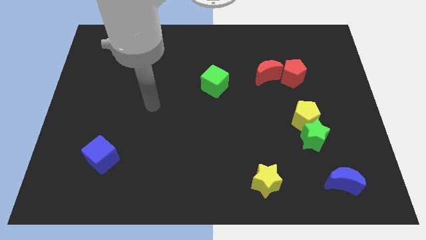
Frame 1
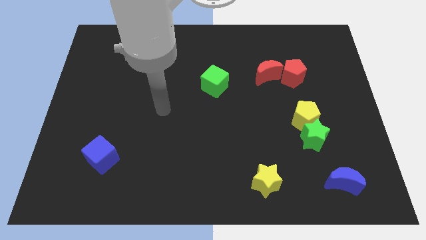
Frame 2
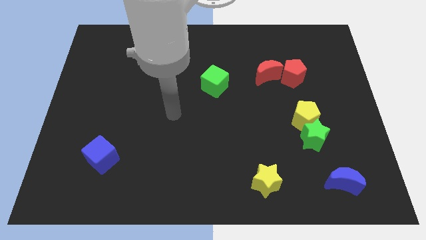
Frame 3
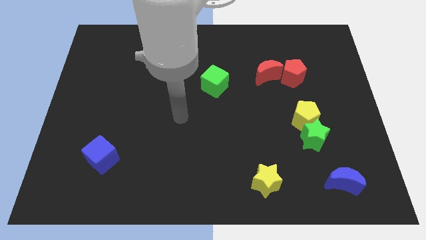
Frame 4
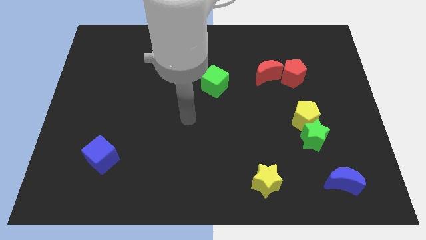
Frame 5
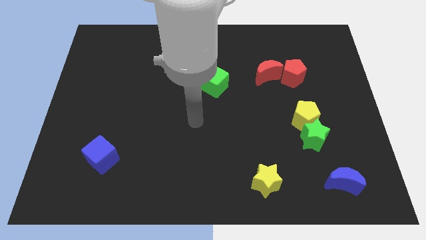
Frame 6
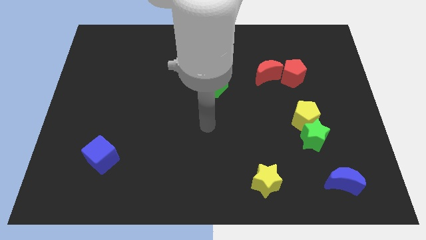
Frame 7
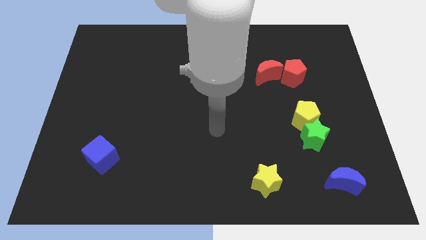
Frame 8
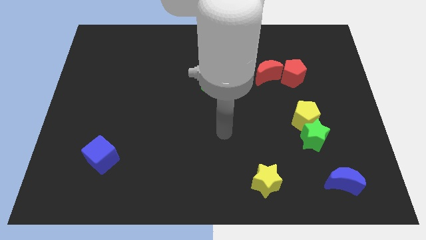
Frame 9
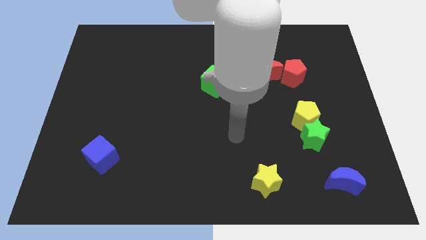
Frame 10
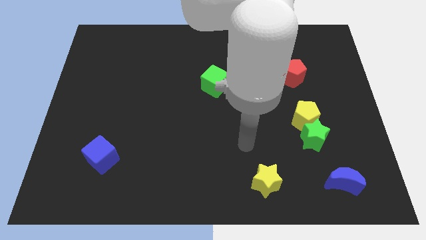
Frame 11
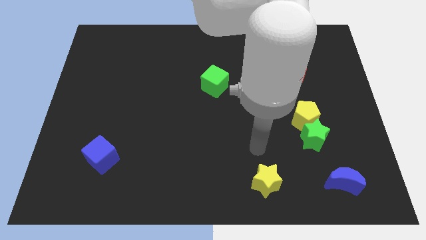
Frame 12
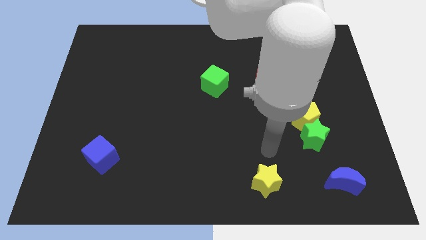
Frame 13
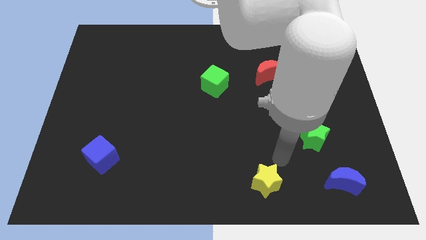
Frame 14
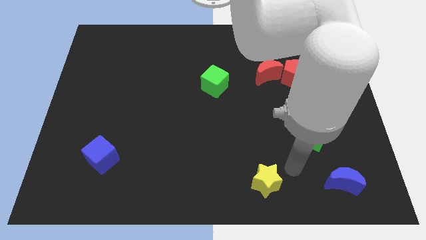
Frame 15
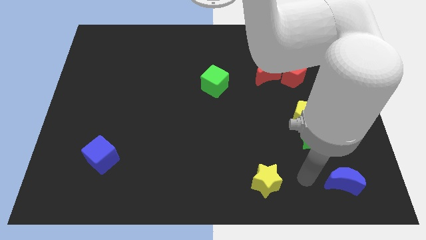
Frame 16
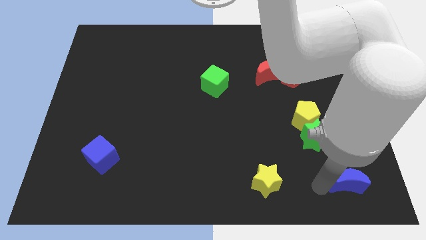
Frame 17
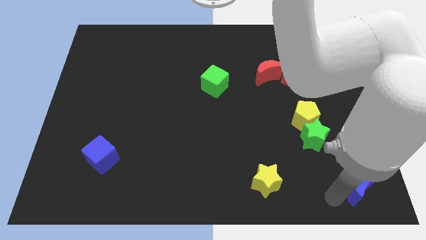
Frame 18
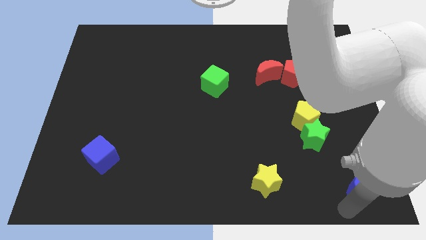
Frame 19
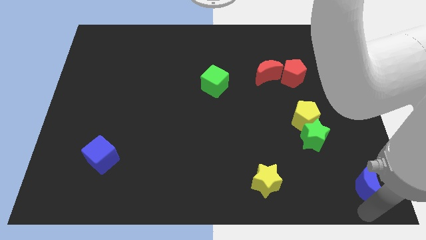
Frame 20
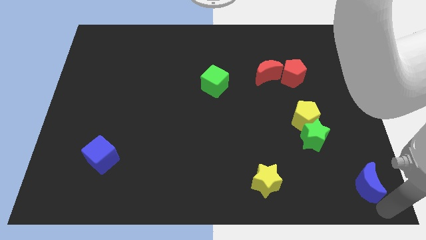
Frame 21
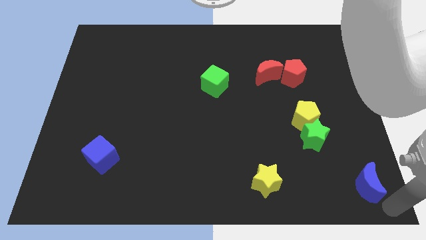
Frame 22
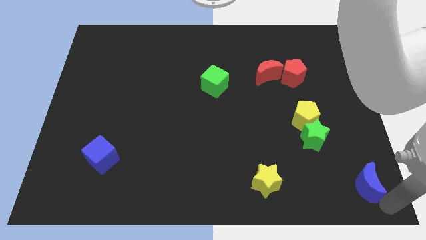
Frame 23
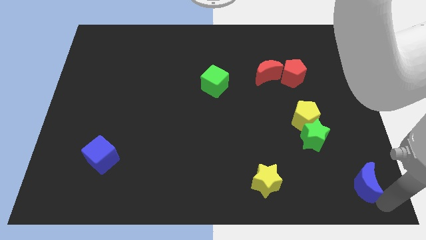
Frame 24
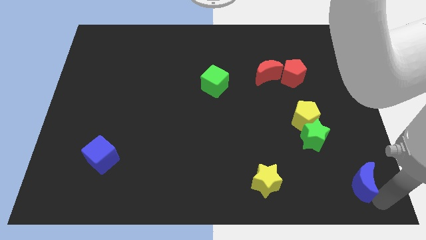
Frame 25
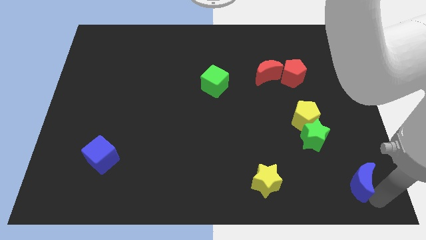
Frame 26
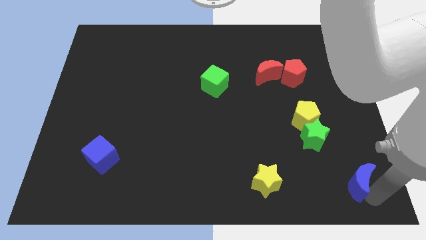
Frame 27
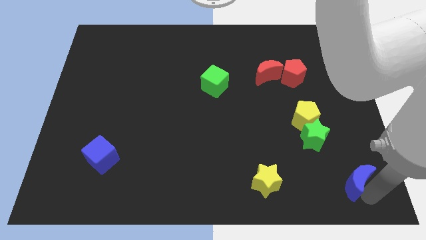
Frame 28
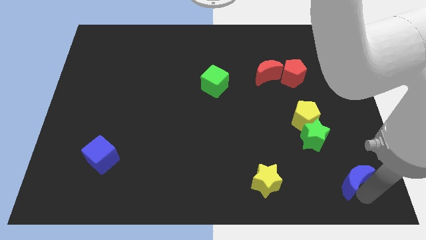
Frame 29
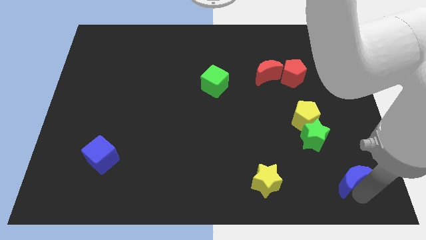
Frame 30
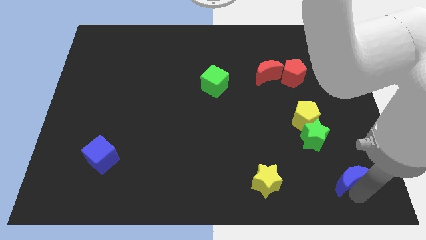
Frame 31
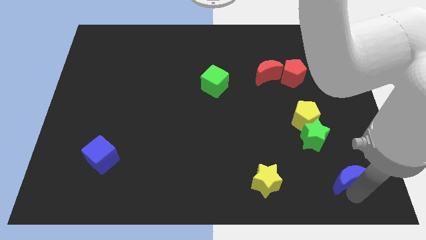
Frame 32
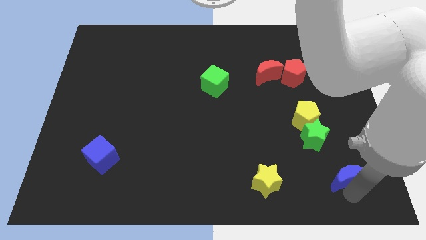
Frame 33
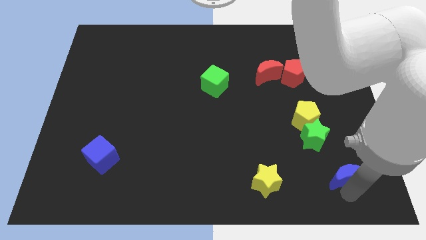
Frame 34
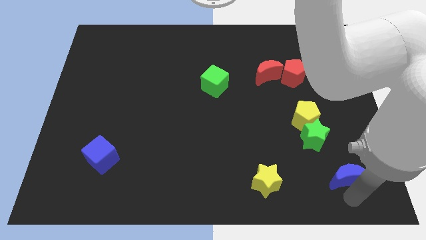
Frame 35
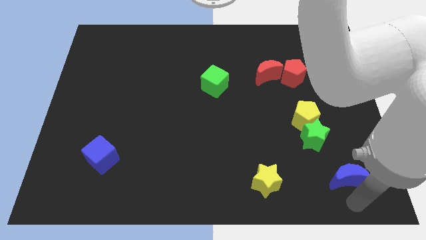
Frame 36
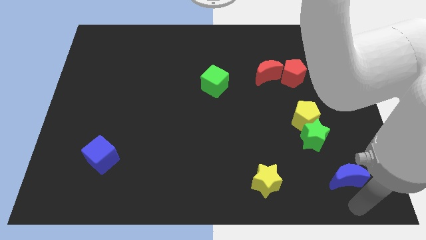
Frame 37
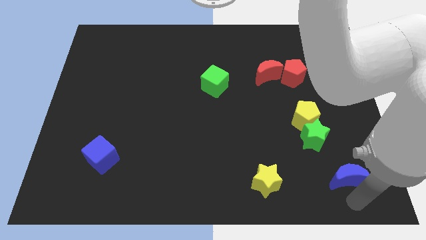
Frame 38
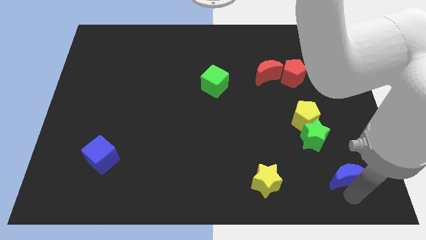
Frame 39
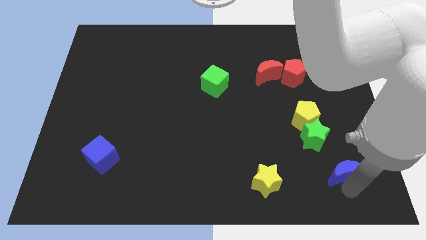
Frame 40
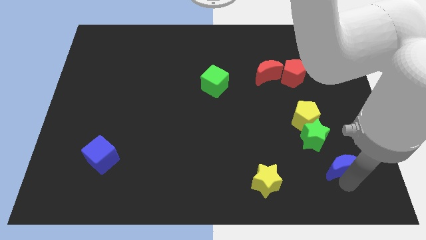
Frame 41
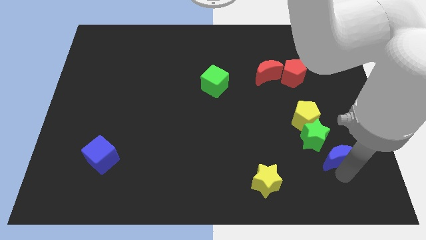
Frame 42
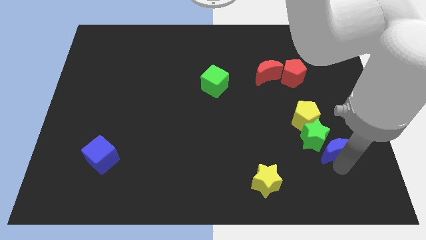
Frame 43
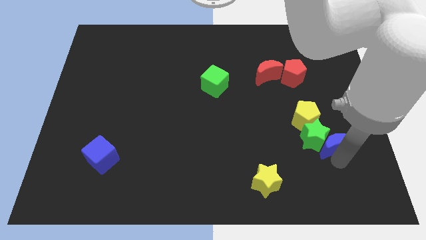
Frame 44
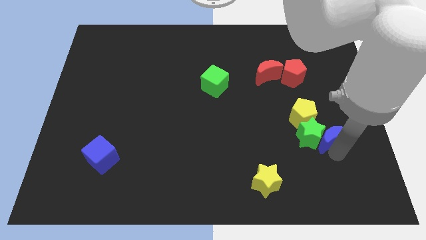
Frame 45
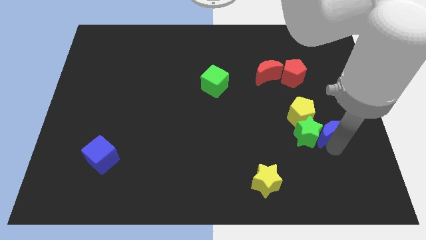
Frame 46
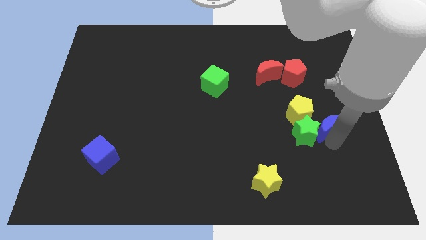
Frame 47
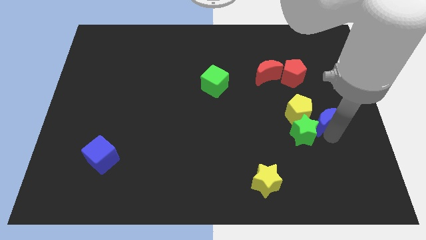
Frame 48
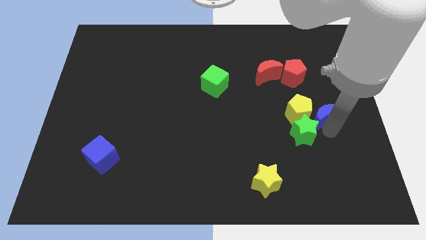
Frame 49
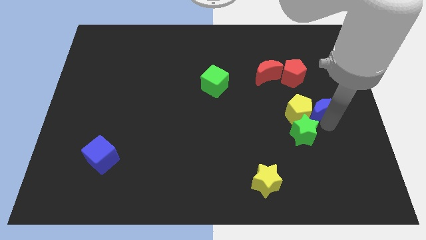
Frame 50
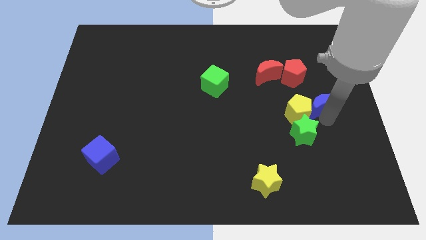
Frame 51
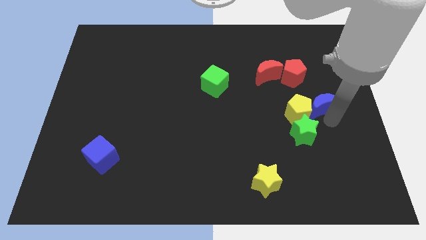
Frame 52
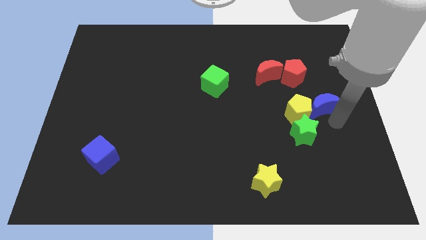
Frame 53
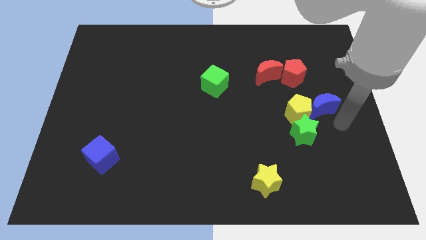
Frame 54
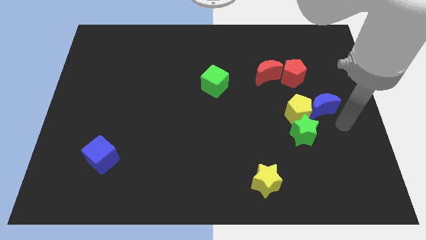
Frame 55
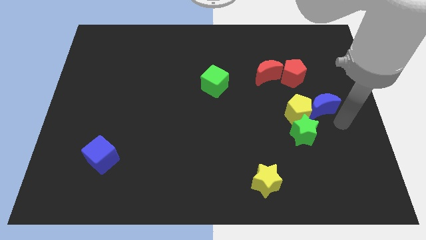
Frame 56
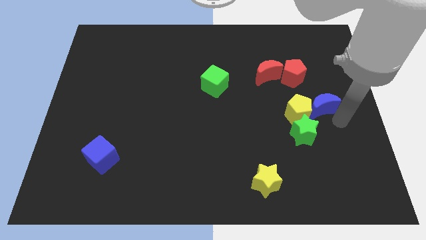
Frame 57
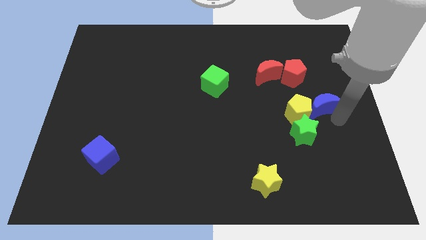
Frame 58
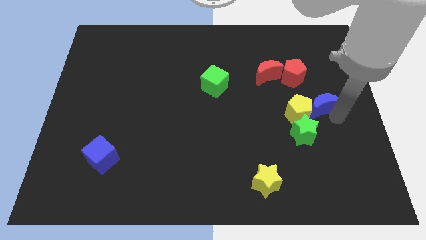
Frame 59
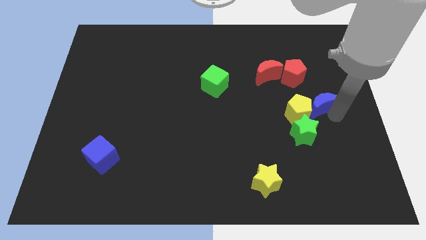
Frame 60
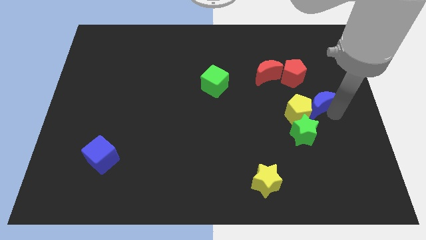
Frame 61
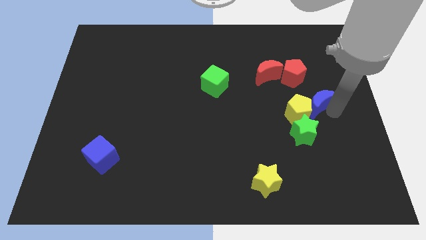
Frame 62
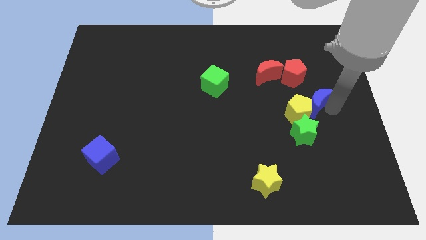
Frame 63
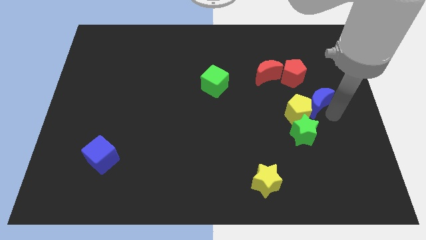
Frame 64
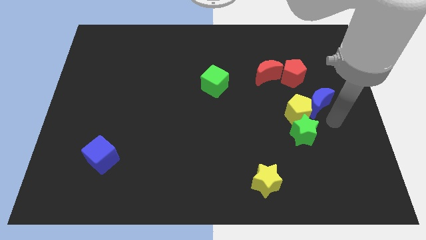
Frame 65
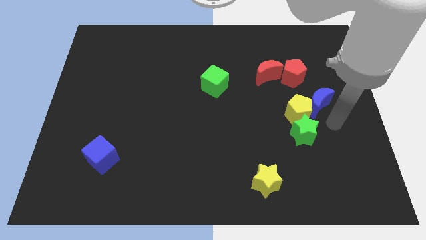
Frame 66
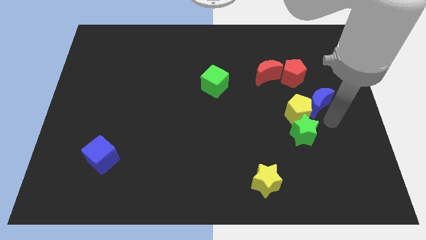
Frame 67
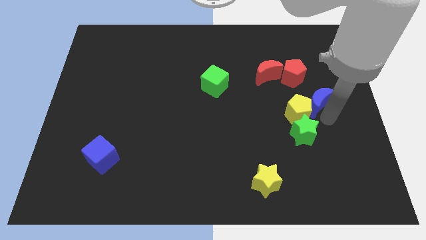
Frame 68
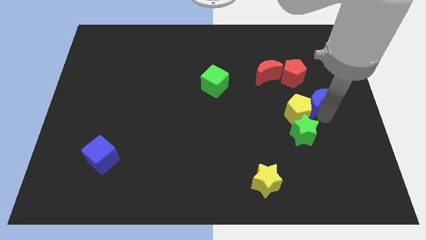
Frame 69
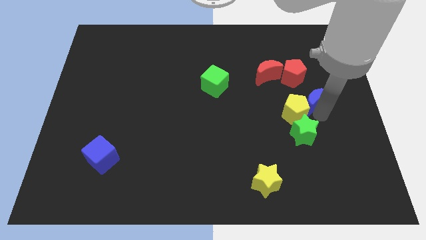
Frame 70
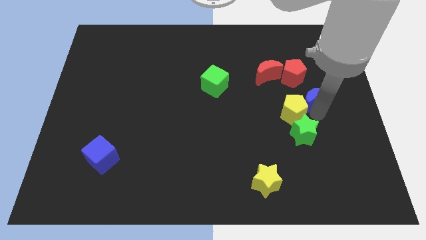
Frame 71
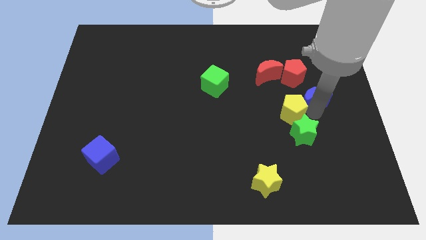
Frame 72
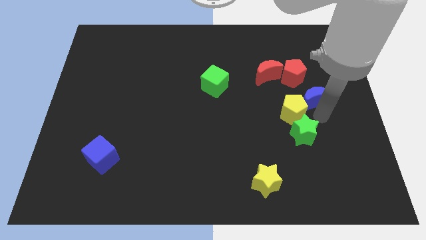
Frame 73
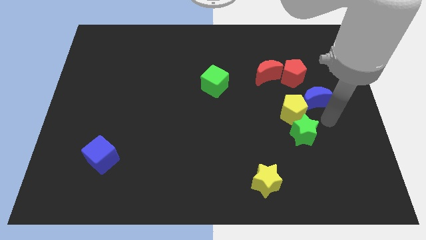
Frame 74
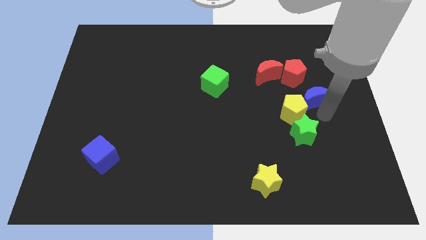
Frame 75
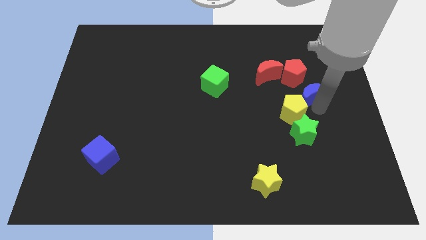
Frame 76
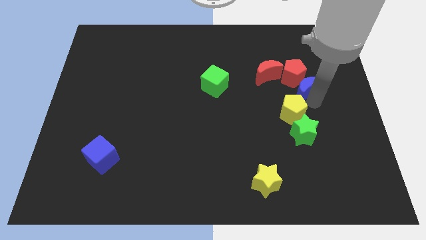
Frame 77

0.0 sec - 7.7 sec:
push the blue moon towards the red pentagon

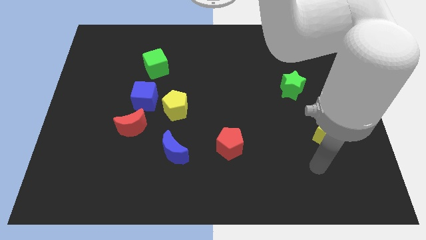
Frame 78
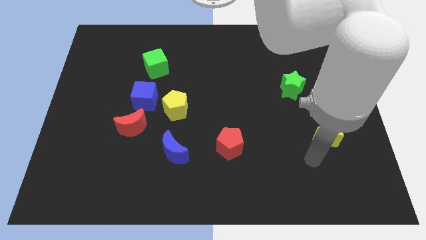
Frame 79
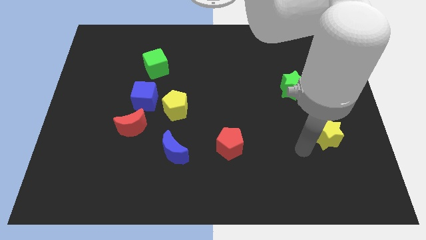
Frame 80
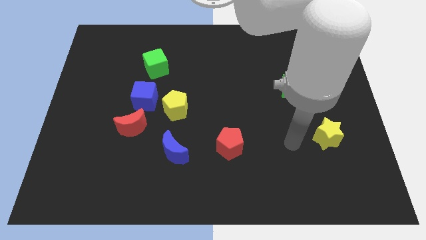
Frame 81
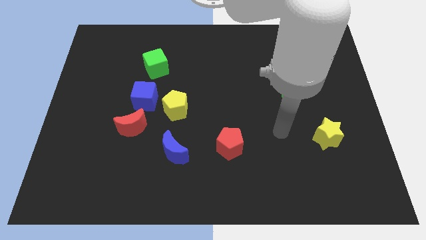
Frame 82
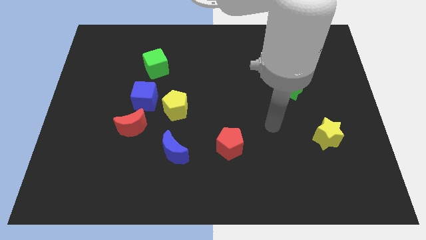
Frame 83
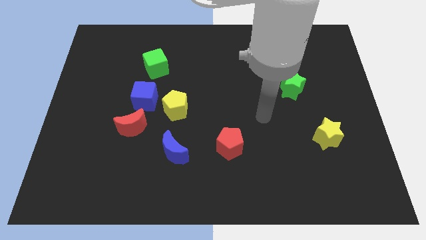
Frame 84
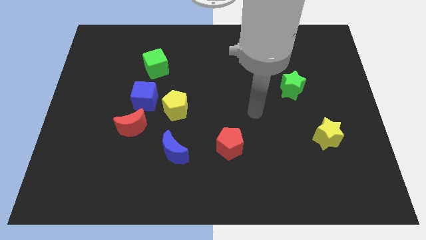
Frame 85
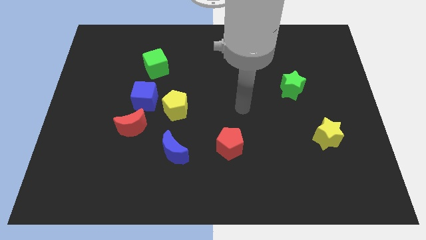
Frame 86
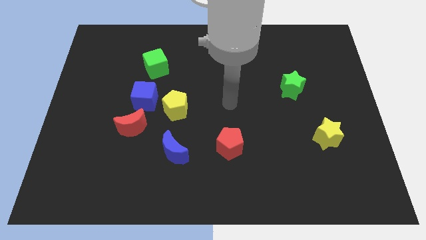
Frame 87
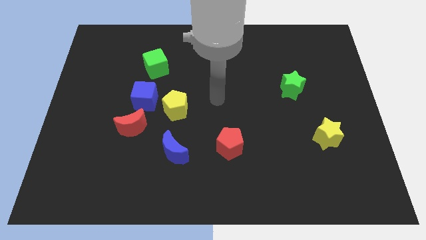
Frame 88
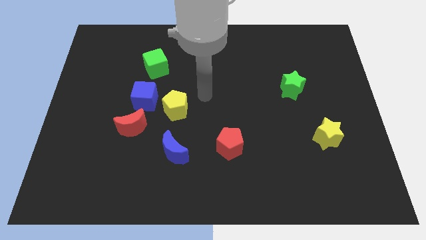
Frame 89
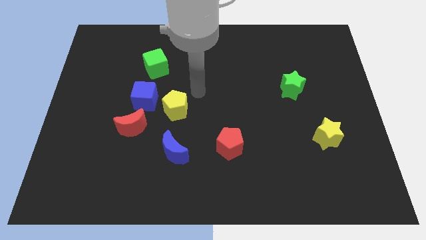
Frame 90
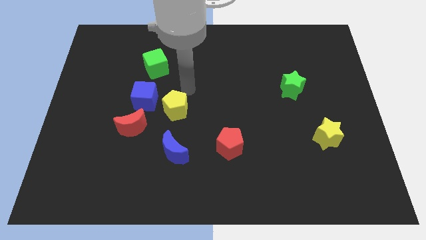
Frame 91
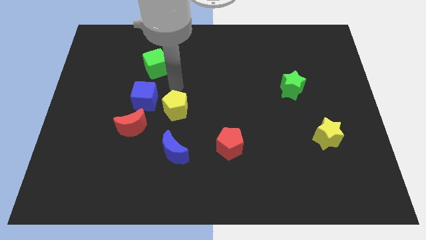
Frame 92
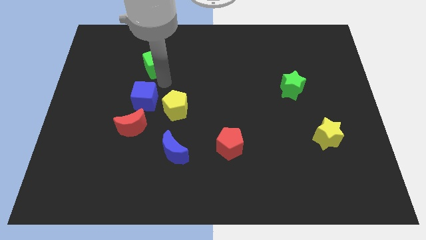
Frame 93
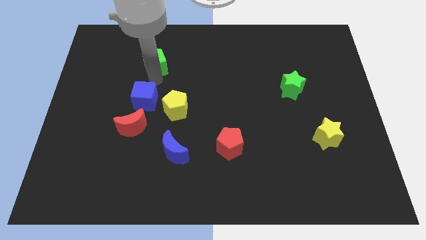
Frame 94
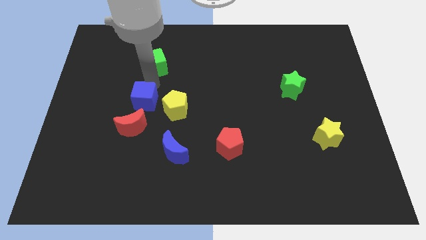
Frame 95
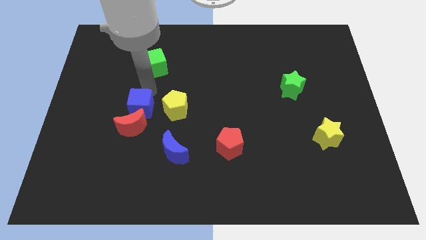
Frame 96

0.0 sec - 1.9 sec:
push the blue cube towards the red moon
